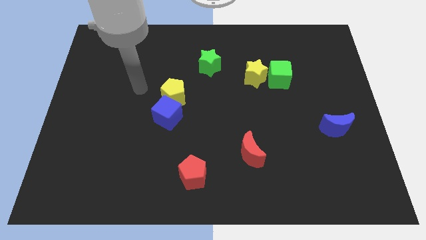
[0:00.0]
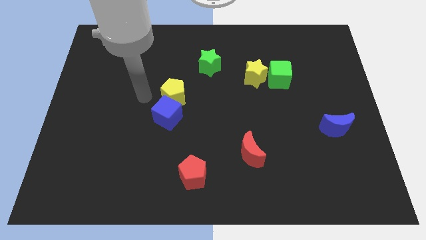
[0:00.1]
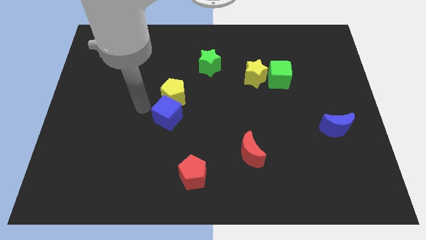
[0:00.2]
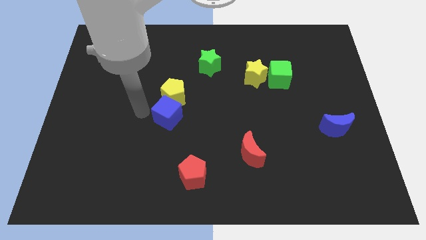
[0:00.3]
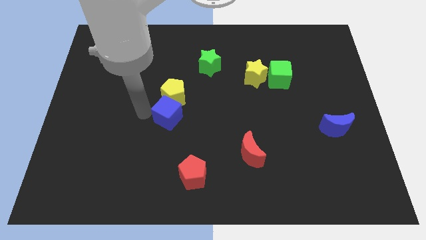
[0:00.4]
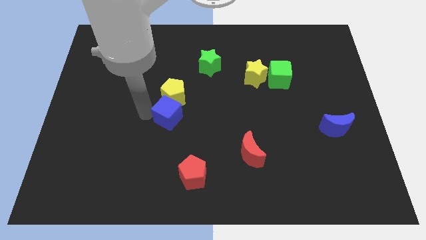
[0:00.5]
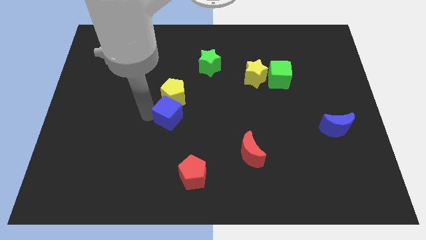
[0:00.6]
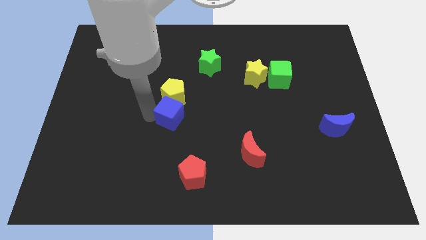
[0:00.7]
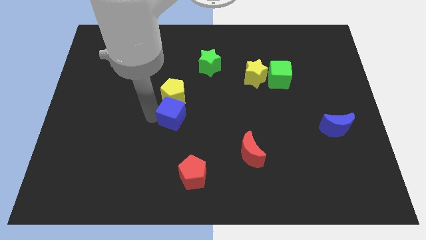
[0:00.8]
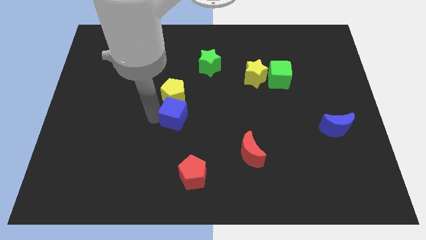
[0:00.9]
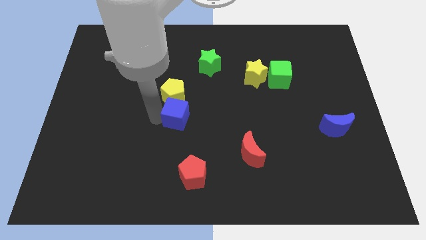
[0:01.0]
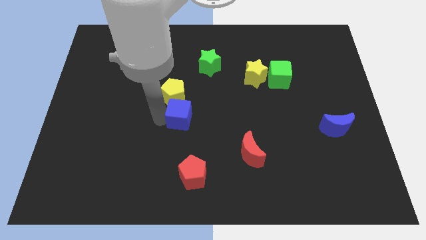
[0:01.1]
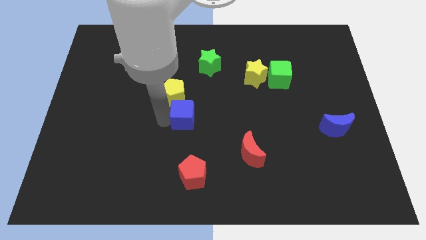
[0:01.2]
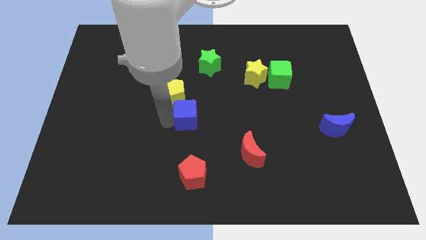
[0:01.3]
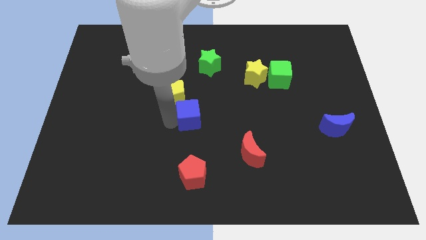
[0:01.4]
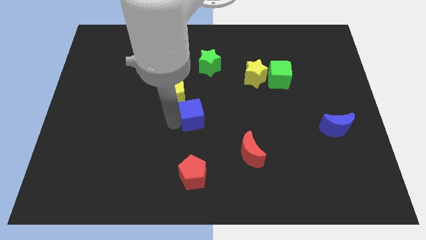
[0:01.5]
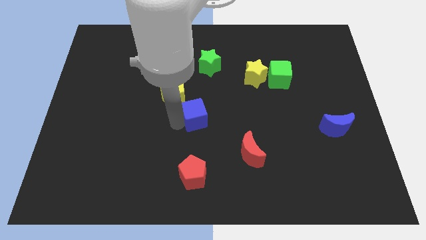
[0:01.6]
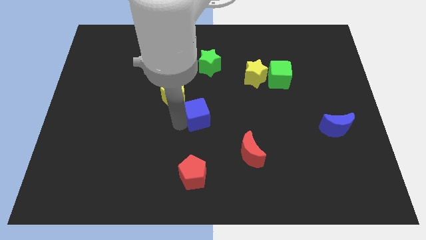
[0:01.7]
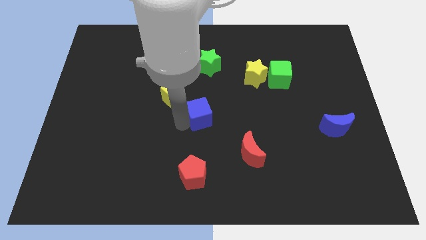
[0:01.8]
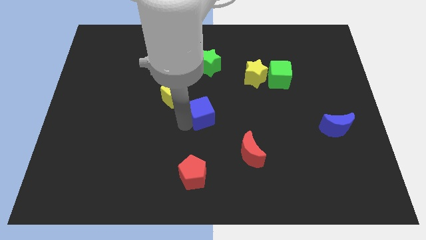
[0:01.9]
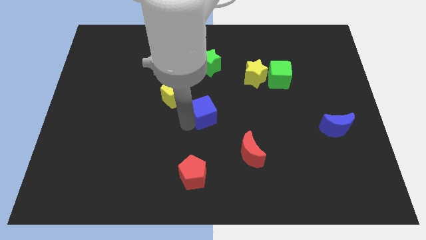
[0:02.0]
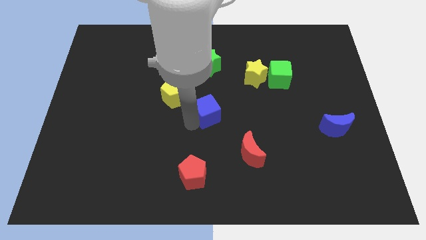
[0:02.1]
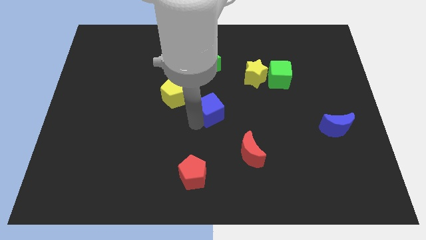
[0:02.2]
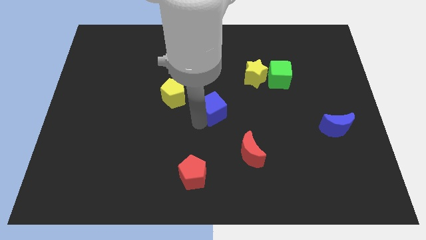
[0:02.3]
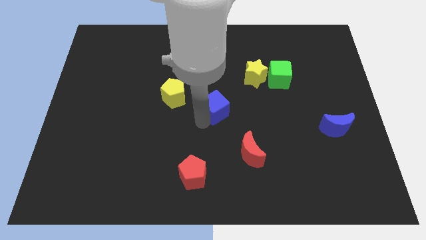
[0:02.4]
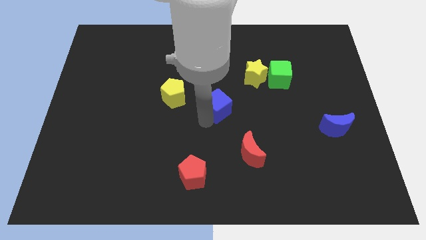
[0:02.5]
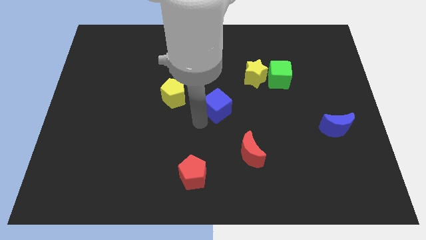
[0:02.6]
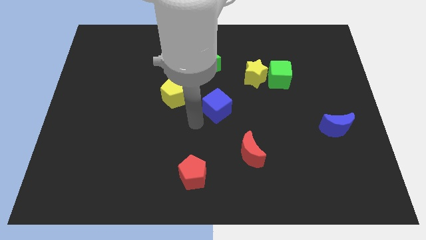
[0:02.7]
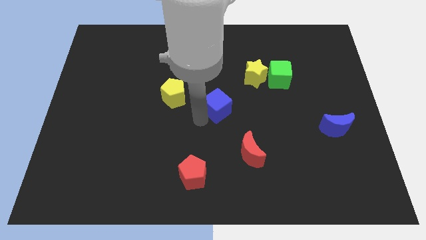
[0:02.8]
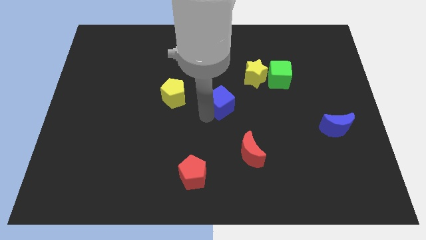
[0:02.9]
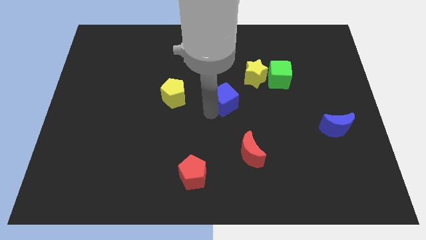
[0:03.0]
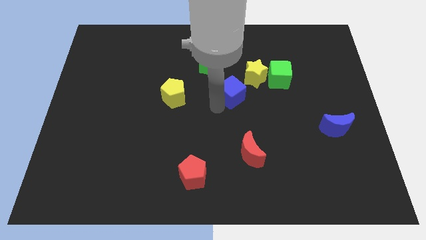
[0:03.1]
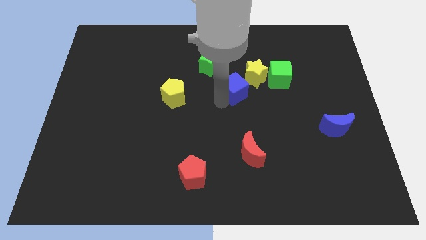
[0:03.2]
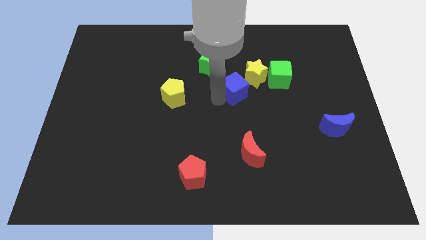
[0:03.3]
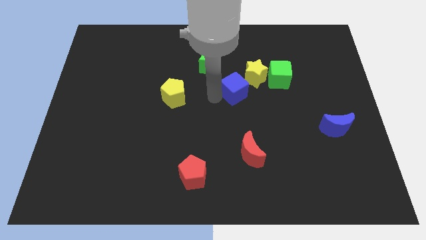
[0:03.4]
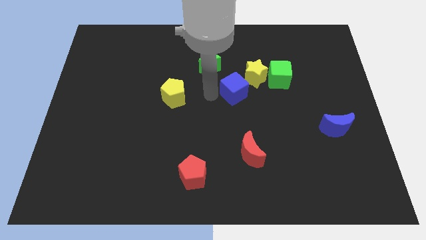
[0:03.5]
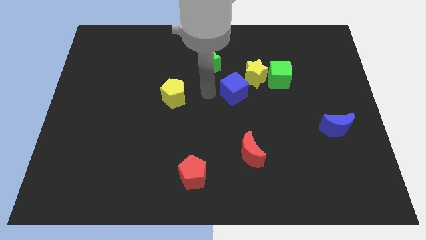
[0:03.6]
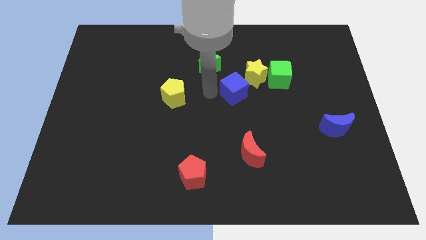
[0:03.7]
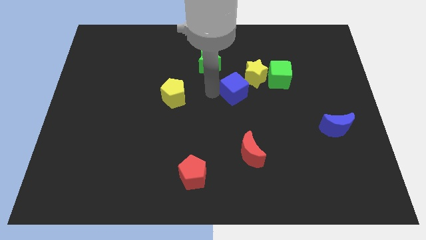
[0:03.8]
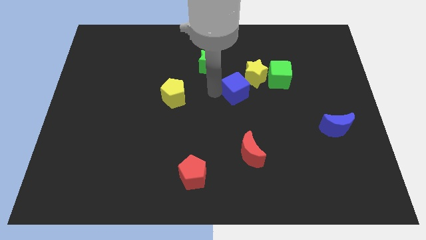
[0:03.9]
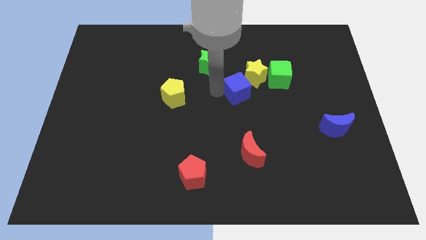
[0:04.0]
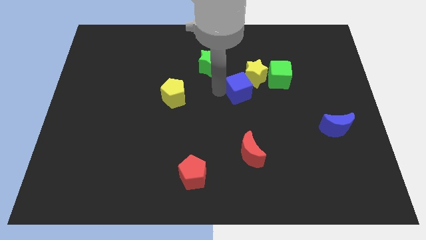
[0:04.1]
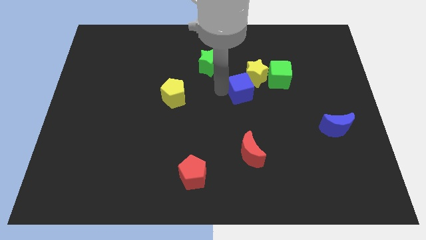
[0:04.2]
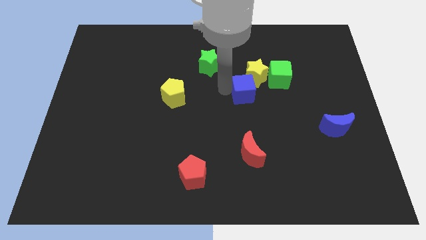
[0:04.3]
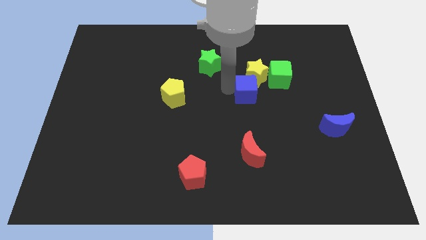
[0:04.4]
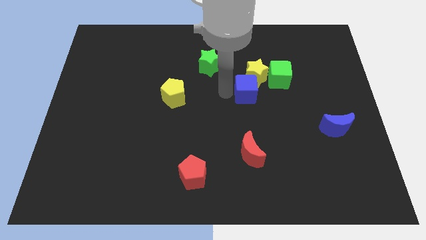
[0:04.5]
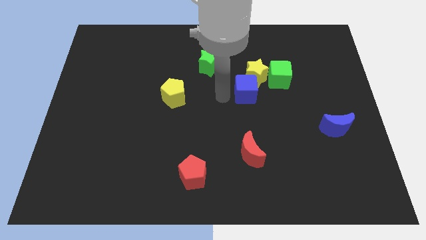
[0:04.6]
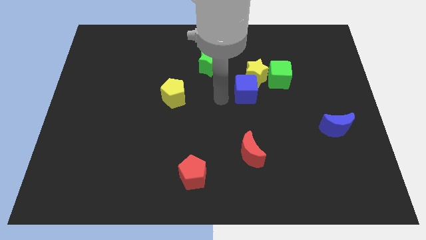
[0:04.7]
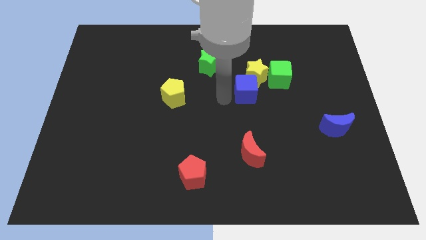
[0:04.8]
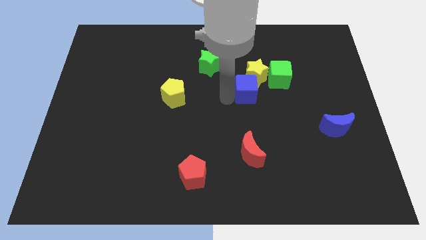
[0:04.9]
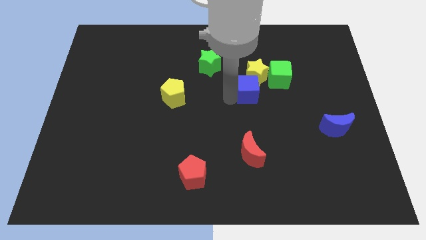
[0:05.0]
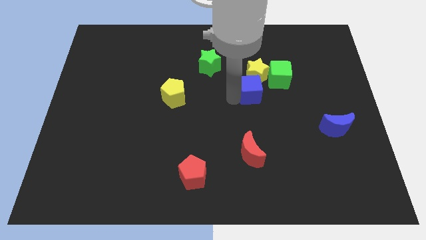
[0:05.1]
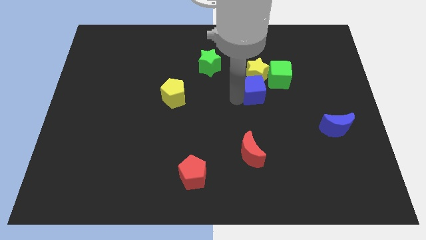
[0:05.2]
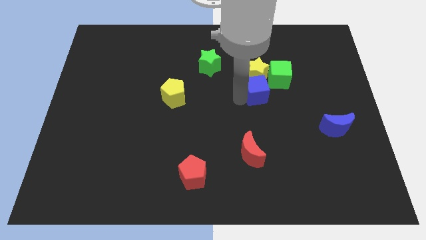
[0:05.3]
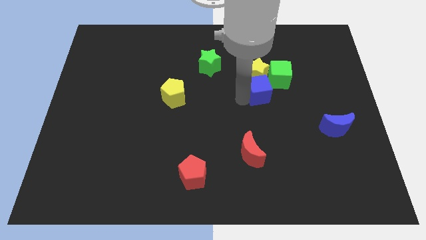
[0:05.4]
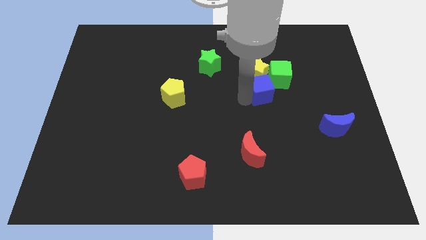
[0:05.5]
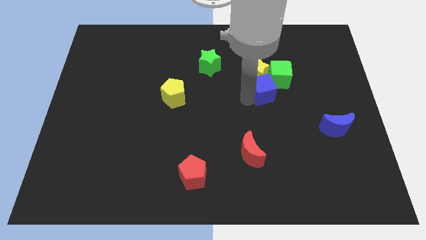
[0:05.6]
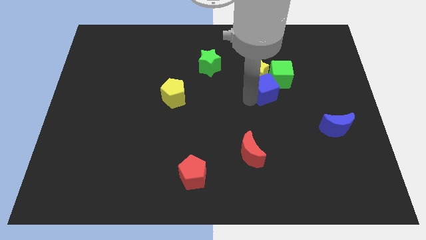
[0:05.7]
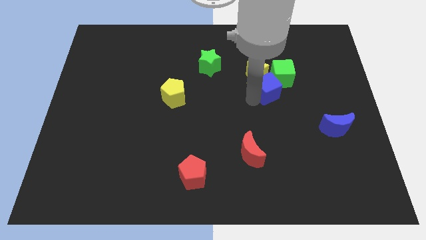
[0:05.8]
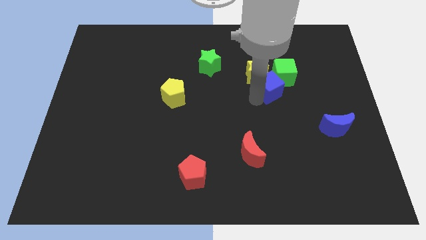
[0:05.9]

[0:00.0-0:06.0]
push the blue cube towards the green cube

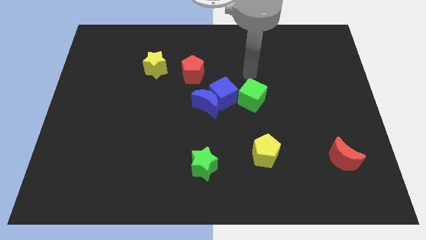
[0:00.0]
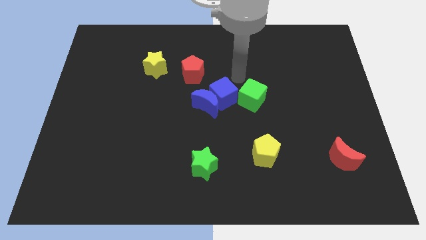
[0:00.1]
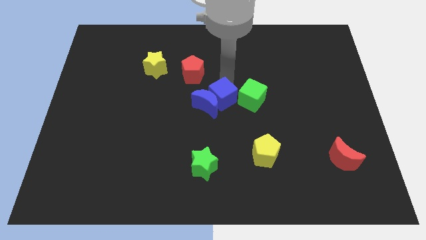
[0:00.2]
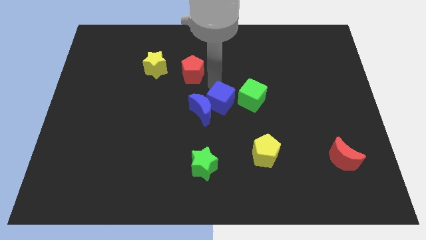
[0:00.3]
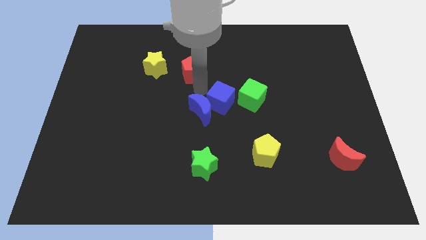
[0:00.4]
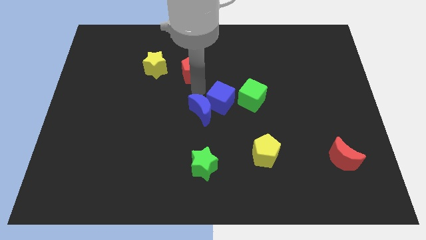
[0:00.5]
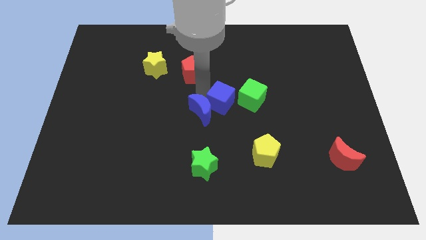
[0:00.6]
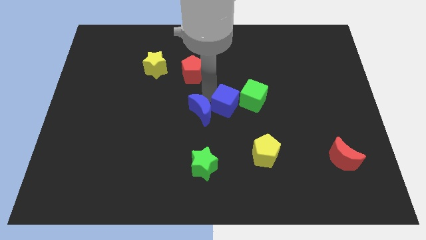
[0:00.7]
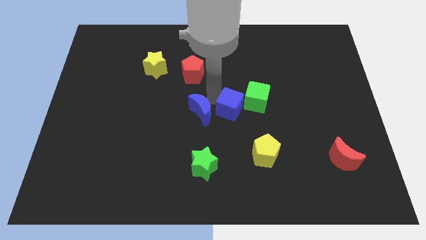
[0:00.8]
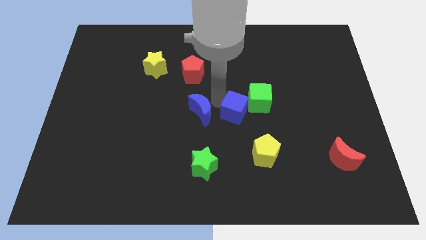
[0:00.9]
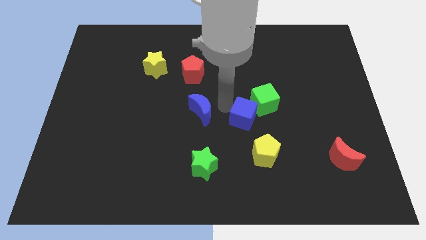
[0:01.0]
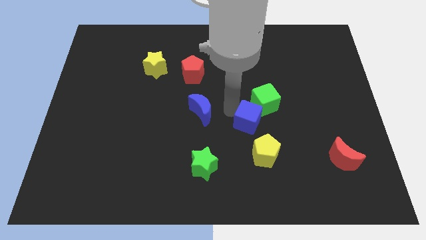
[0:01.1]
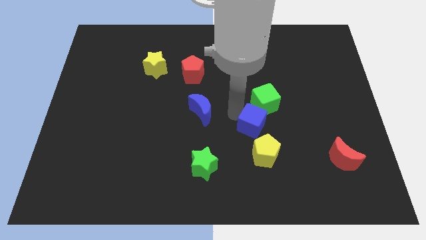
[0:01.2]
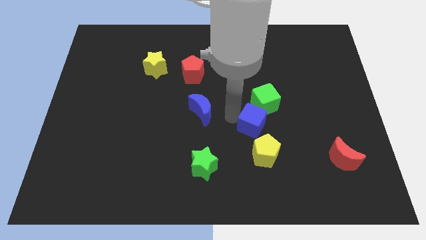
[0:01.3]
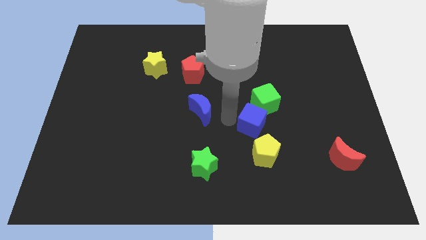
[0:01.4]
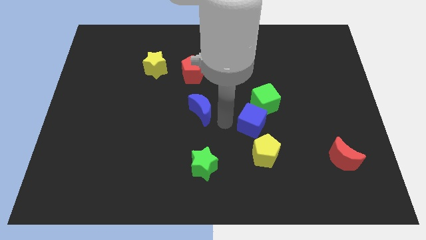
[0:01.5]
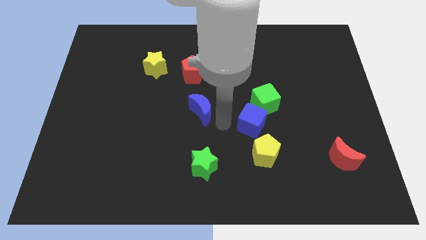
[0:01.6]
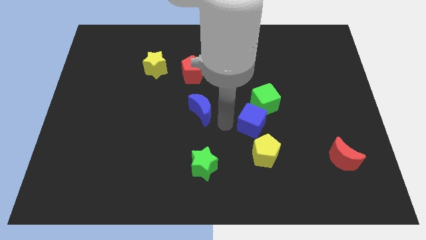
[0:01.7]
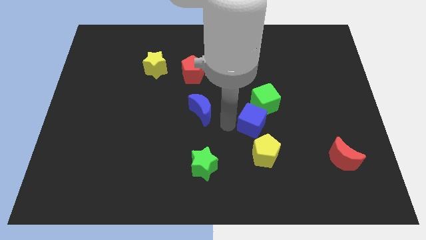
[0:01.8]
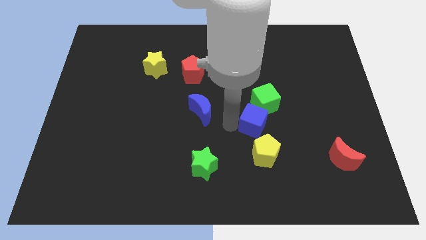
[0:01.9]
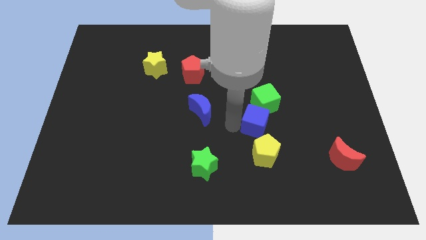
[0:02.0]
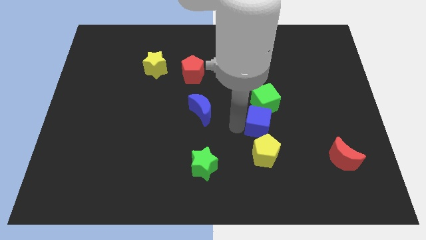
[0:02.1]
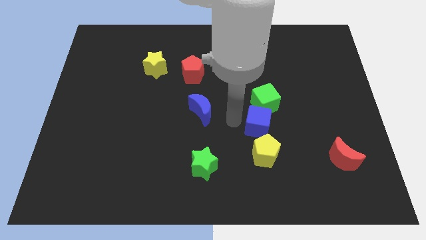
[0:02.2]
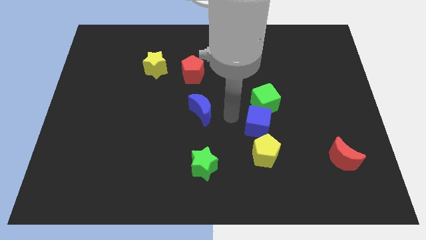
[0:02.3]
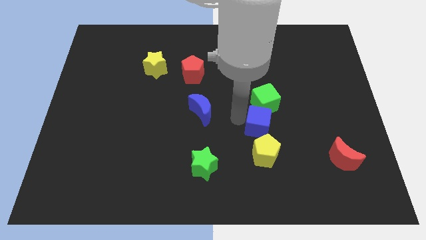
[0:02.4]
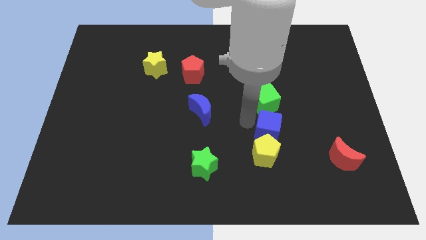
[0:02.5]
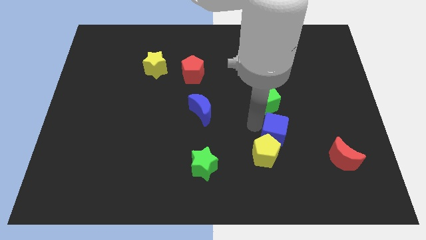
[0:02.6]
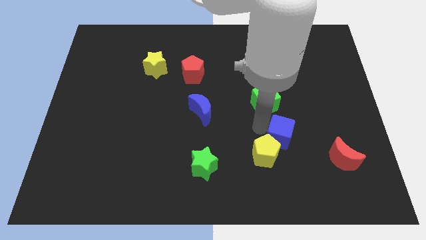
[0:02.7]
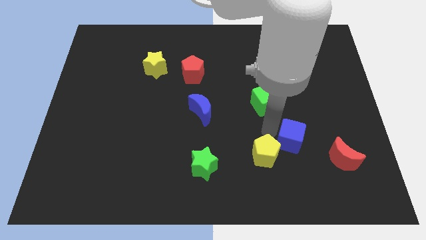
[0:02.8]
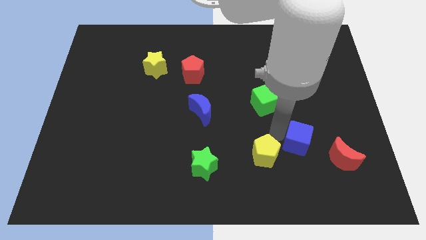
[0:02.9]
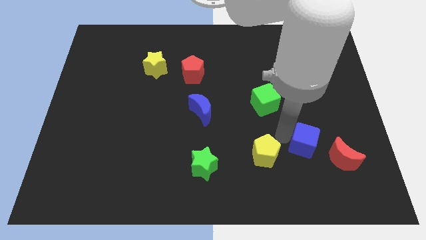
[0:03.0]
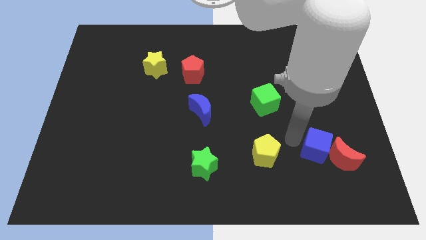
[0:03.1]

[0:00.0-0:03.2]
push the blue cube towards the red moon
